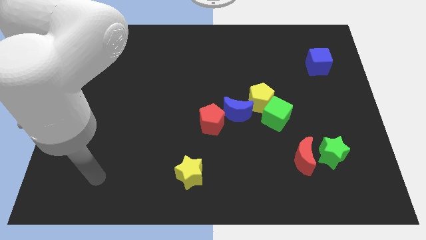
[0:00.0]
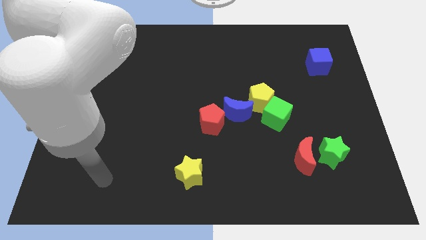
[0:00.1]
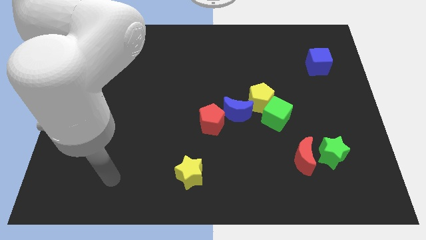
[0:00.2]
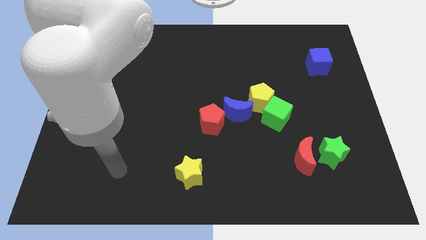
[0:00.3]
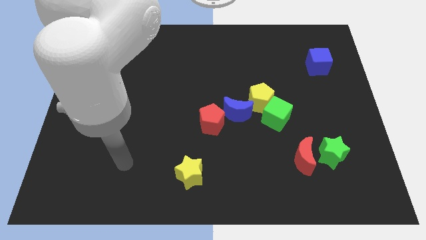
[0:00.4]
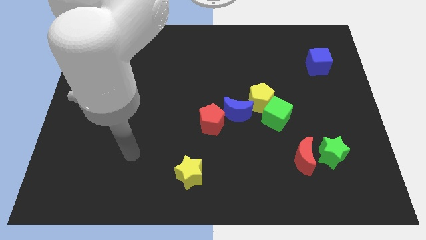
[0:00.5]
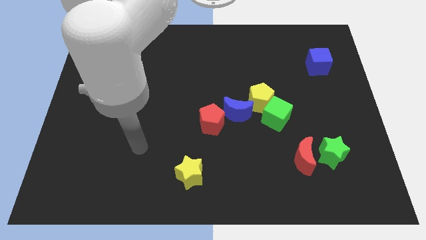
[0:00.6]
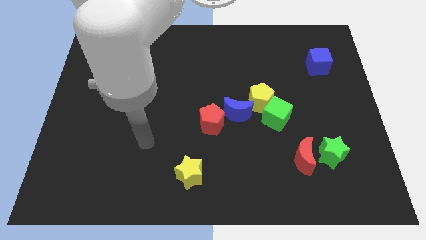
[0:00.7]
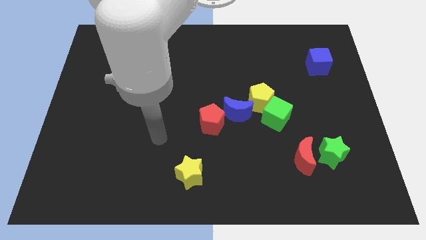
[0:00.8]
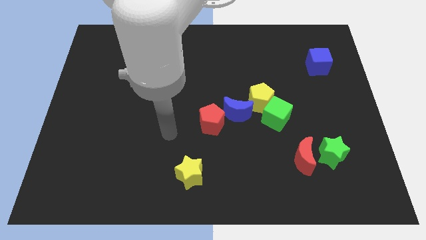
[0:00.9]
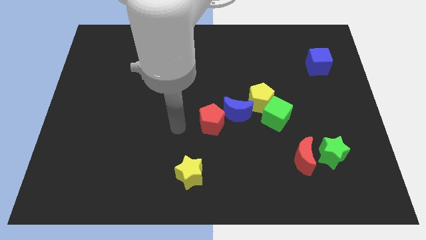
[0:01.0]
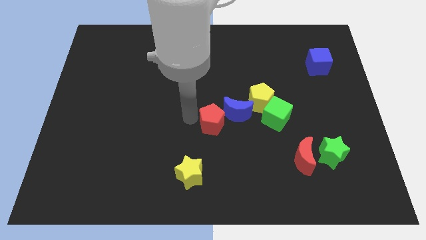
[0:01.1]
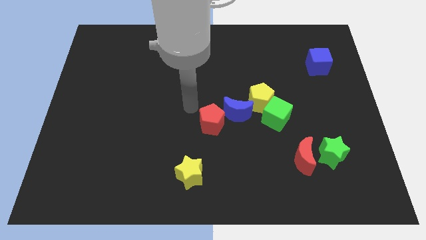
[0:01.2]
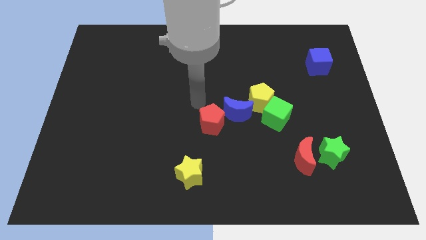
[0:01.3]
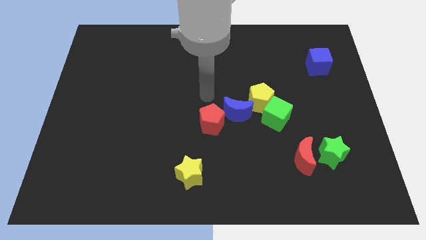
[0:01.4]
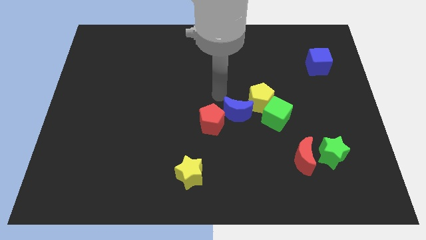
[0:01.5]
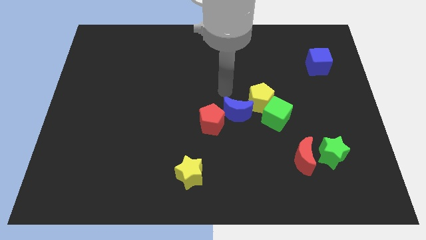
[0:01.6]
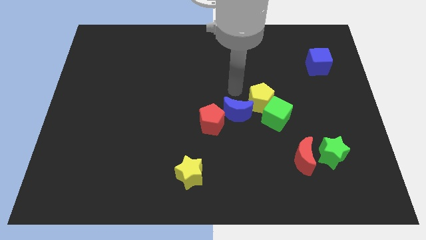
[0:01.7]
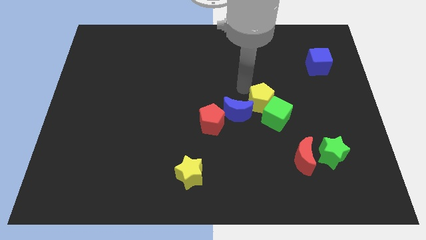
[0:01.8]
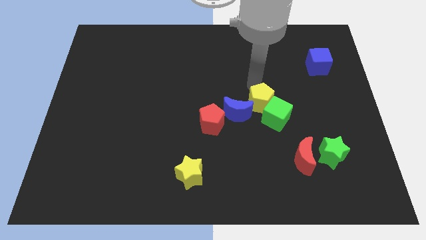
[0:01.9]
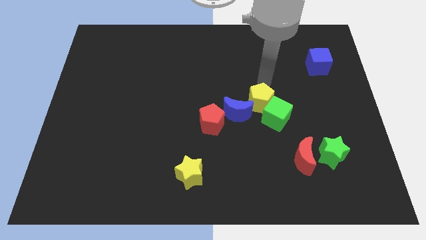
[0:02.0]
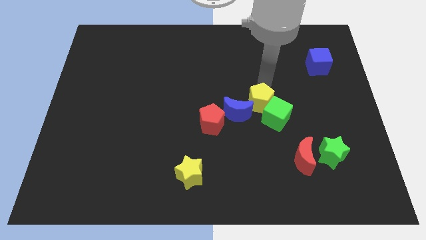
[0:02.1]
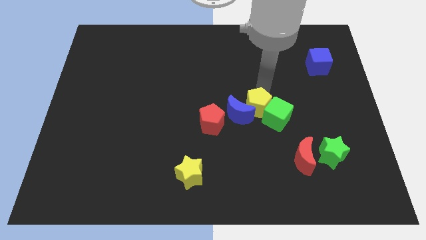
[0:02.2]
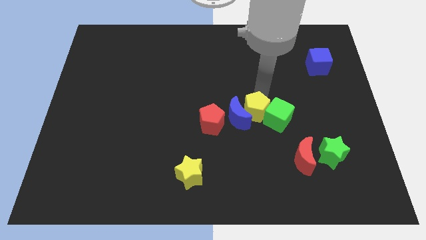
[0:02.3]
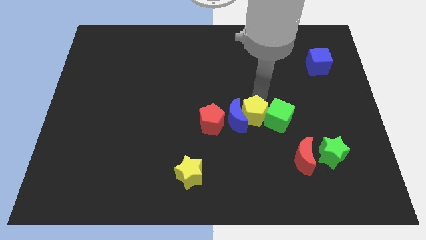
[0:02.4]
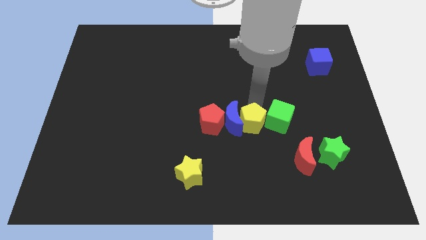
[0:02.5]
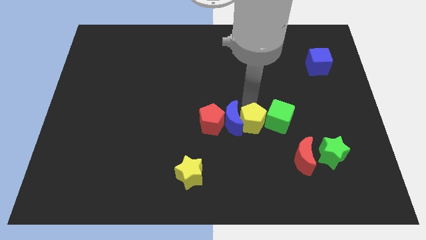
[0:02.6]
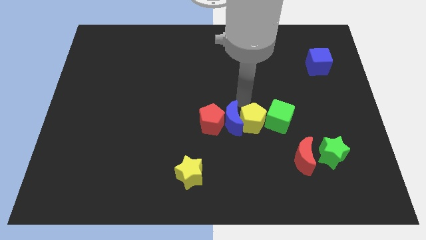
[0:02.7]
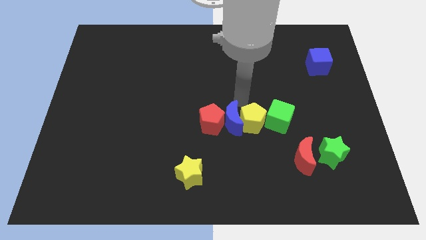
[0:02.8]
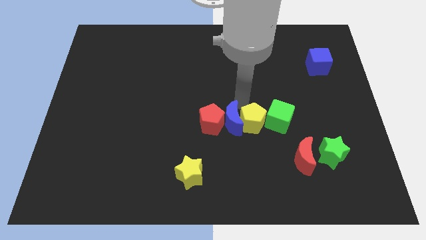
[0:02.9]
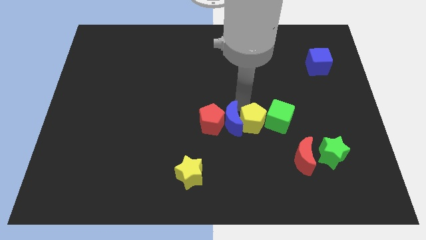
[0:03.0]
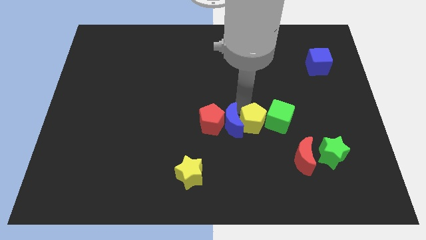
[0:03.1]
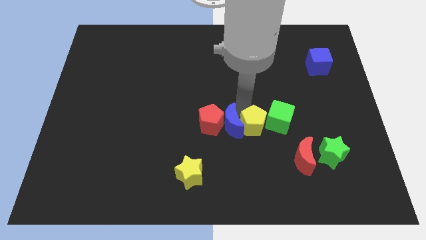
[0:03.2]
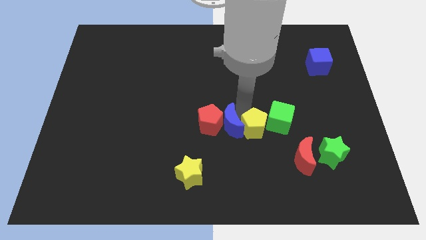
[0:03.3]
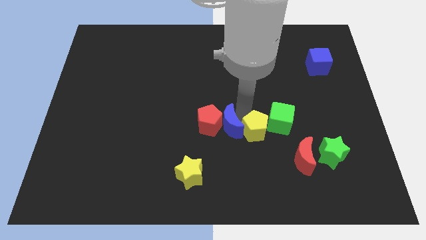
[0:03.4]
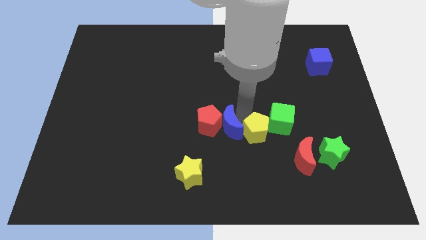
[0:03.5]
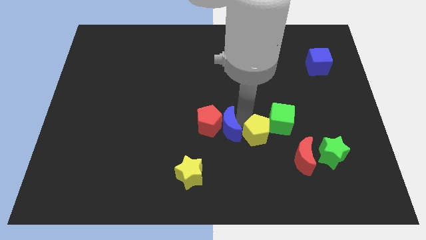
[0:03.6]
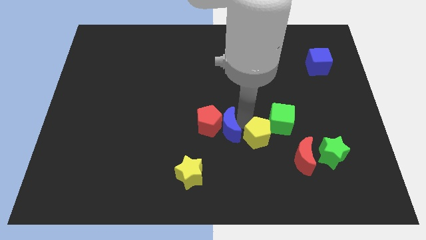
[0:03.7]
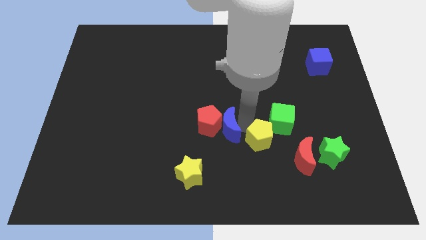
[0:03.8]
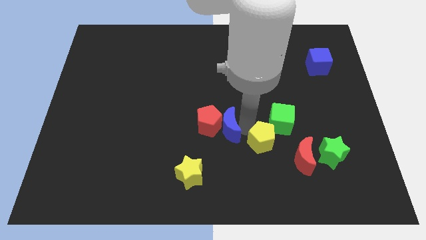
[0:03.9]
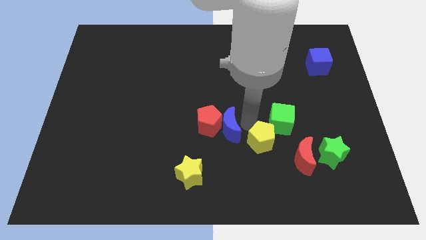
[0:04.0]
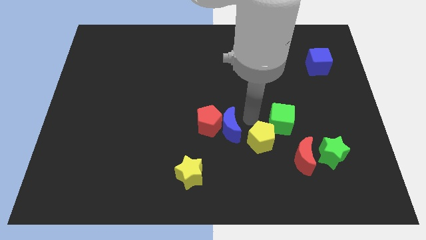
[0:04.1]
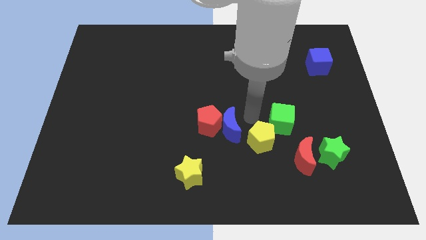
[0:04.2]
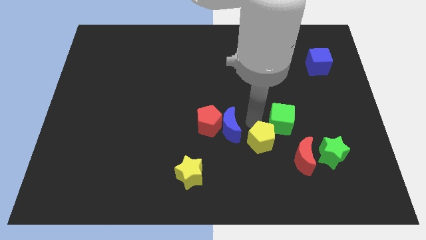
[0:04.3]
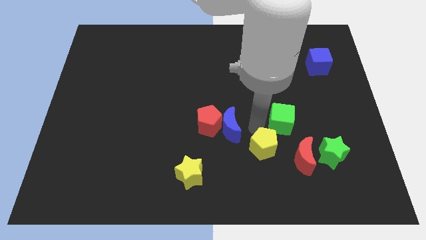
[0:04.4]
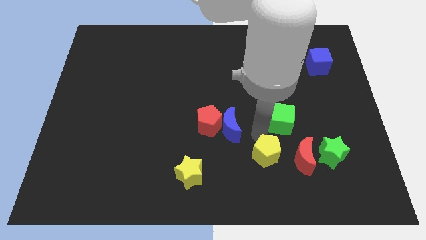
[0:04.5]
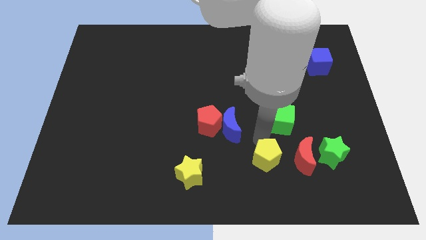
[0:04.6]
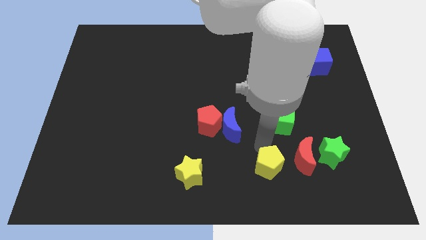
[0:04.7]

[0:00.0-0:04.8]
push the yellow pentagon diagonally down and to the left of the red moon

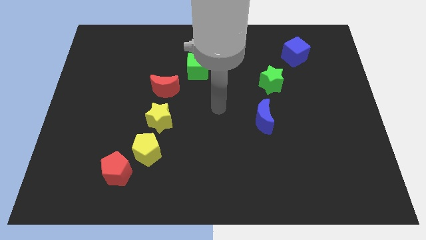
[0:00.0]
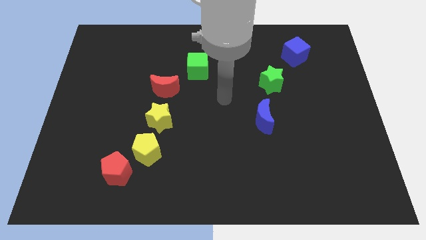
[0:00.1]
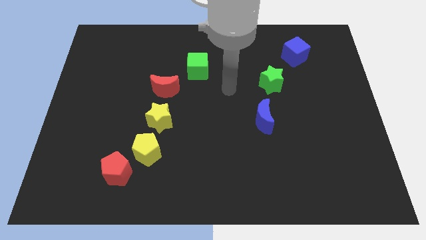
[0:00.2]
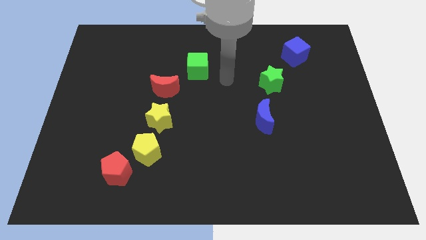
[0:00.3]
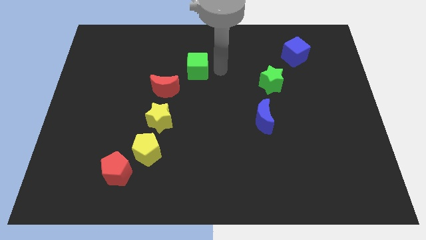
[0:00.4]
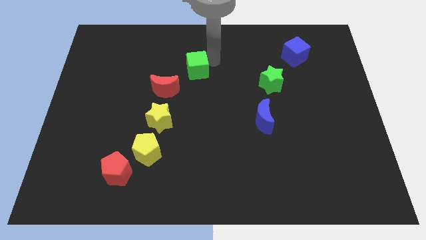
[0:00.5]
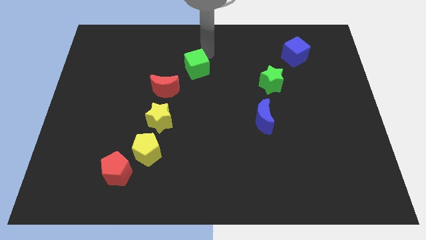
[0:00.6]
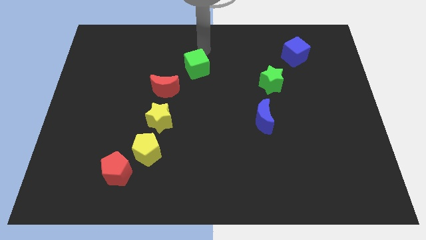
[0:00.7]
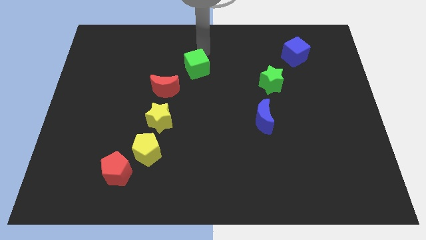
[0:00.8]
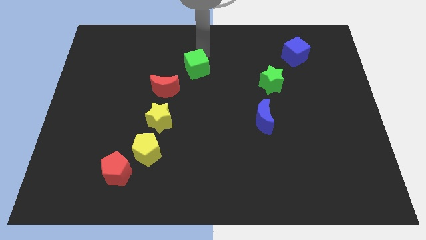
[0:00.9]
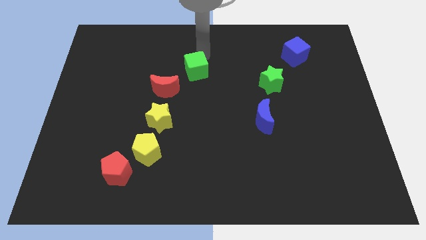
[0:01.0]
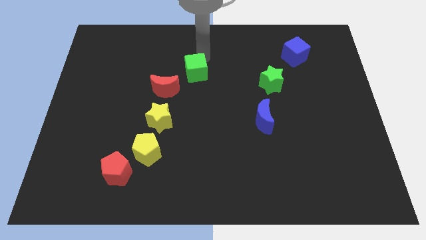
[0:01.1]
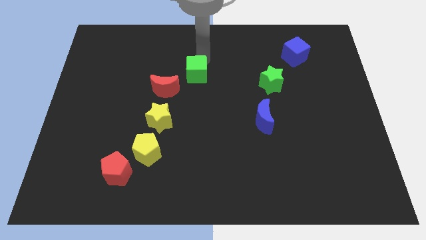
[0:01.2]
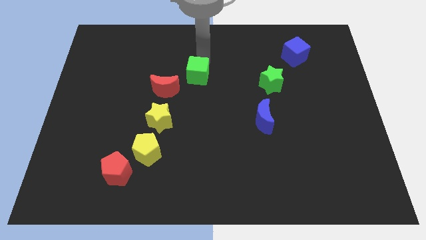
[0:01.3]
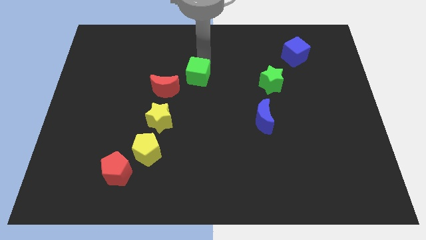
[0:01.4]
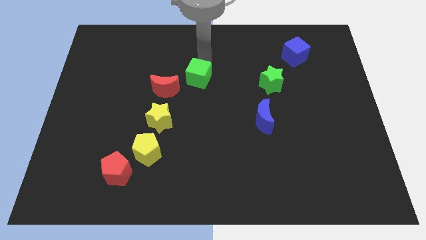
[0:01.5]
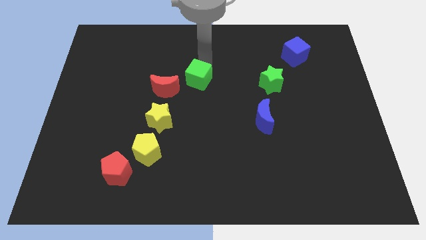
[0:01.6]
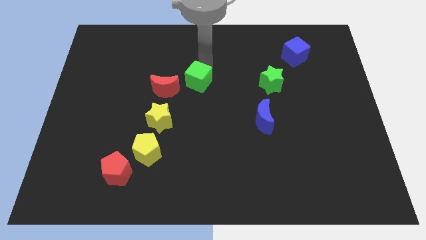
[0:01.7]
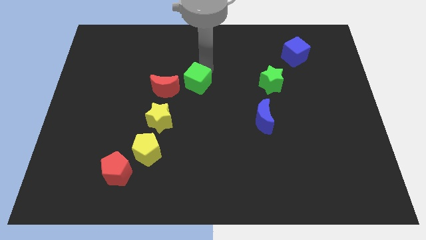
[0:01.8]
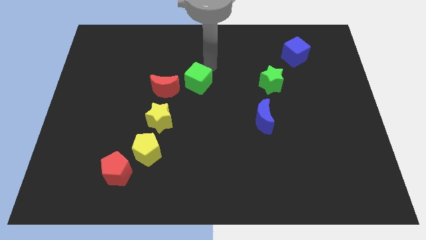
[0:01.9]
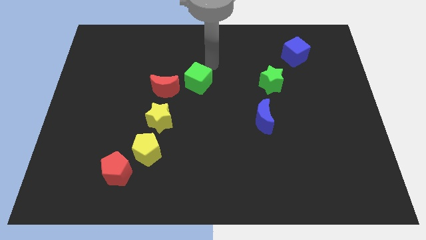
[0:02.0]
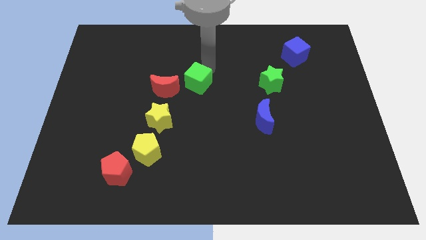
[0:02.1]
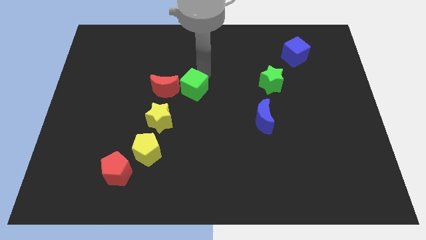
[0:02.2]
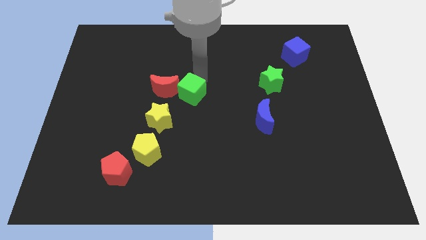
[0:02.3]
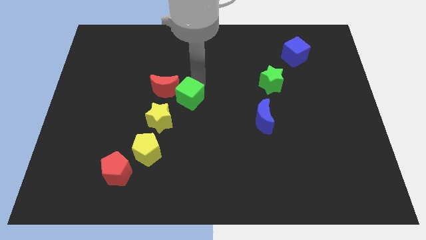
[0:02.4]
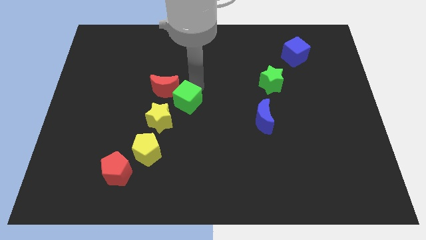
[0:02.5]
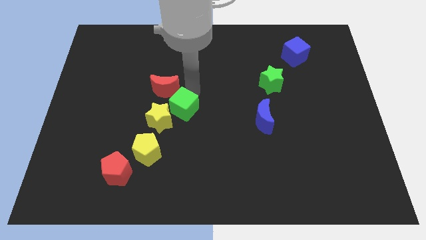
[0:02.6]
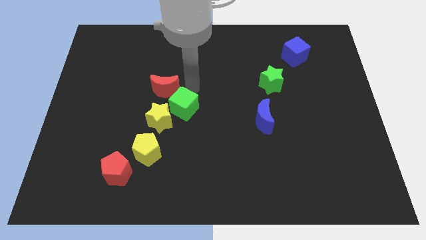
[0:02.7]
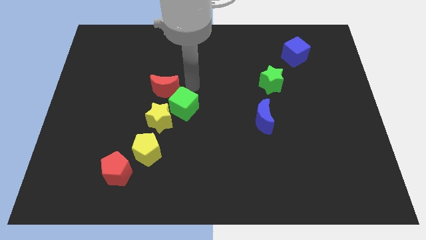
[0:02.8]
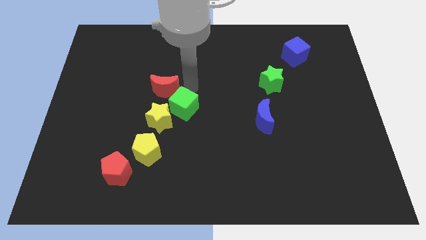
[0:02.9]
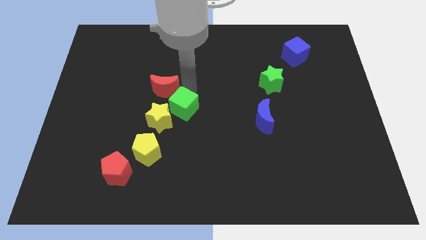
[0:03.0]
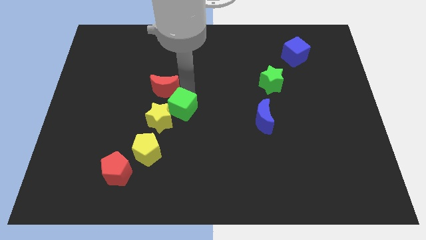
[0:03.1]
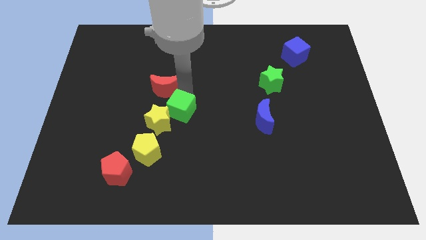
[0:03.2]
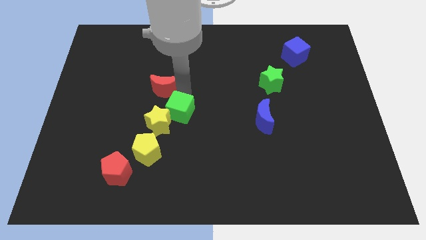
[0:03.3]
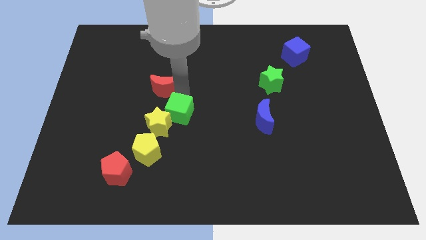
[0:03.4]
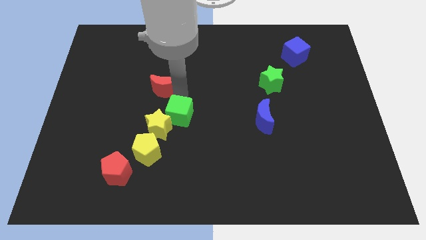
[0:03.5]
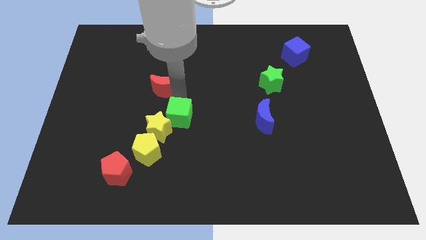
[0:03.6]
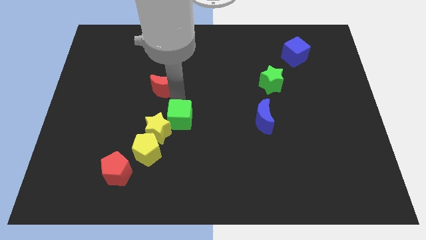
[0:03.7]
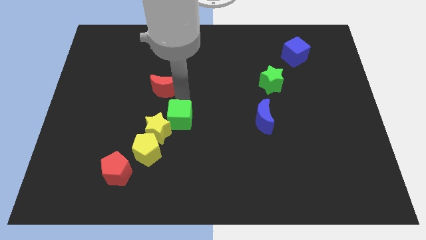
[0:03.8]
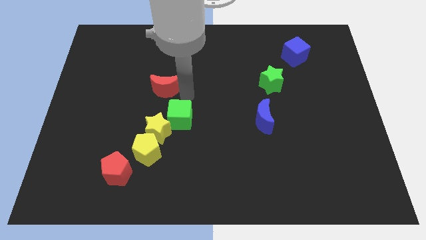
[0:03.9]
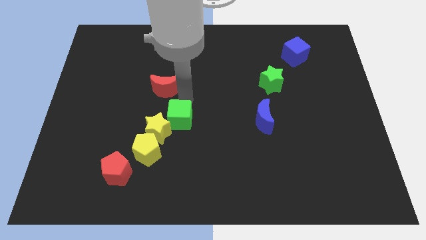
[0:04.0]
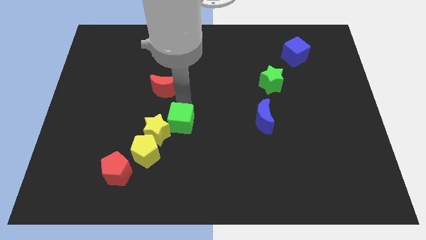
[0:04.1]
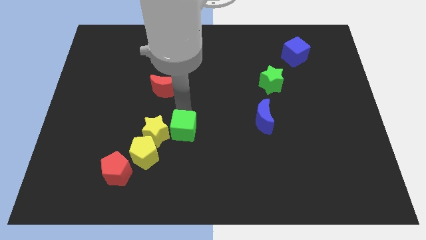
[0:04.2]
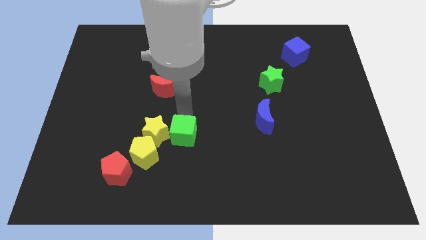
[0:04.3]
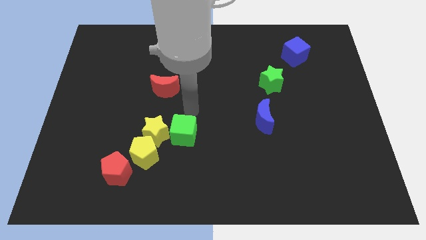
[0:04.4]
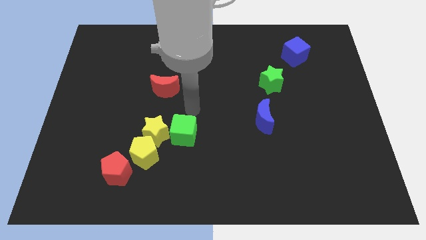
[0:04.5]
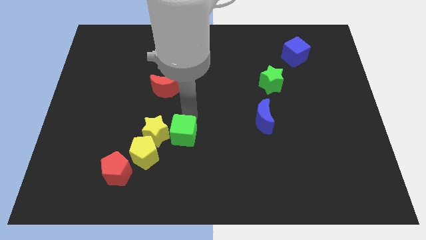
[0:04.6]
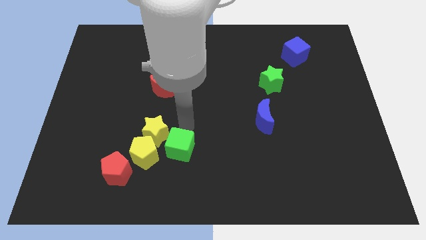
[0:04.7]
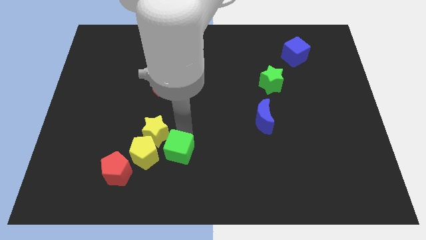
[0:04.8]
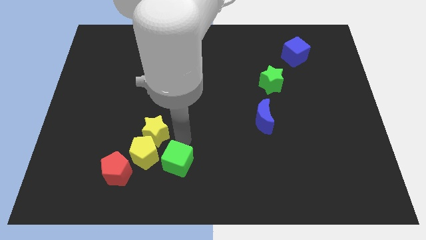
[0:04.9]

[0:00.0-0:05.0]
put the green cube to the bottom right side of the yellow pentagon
